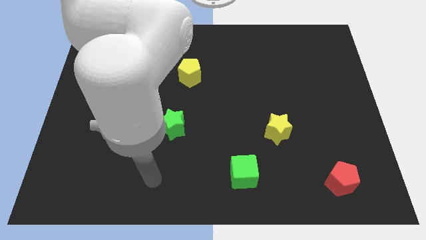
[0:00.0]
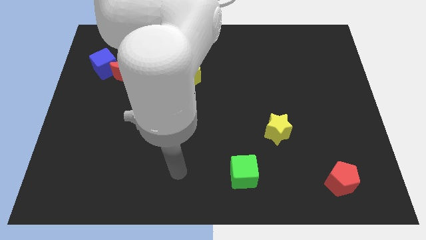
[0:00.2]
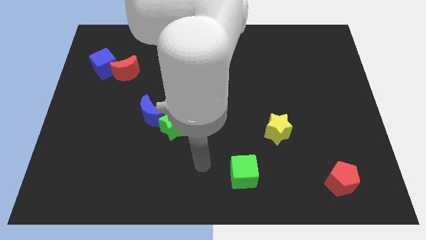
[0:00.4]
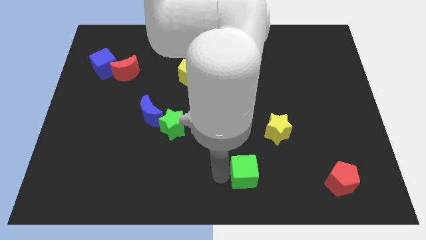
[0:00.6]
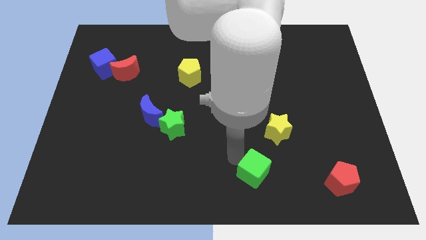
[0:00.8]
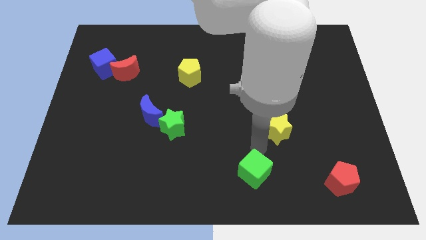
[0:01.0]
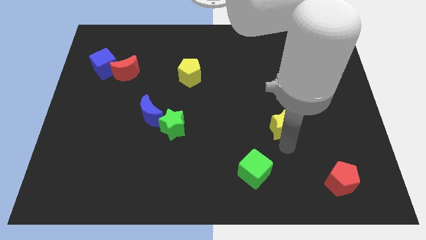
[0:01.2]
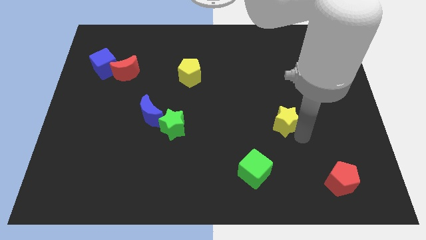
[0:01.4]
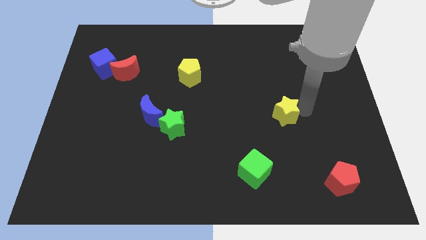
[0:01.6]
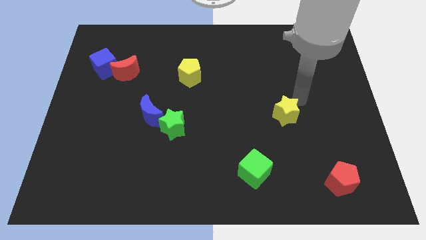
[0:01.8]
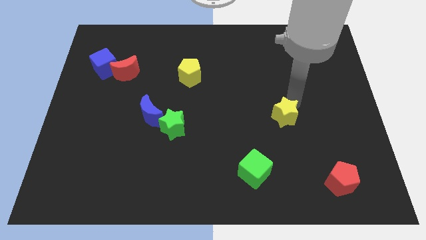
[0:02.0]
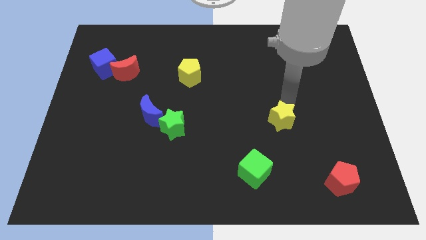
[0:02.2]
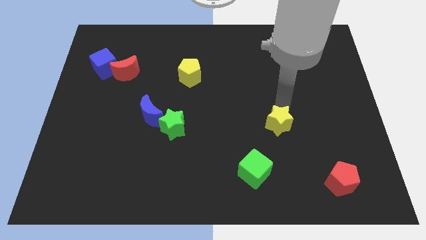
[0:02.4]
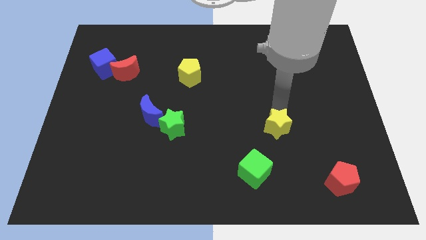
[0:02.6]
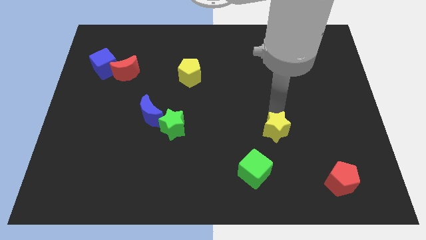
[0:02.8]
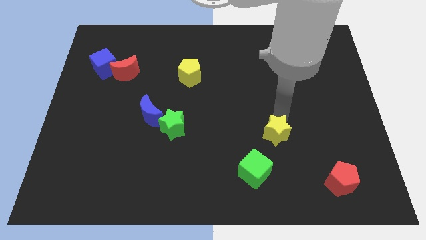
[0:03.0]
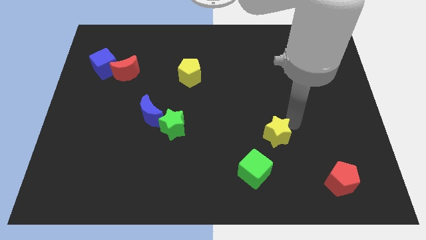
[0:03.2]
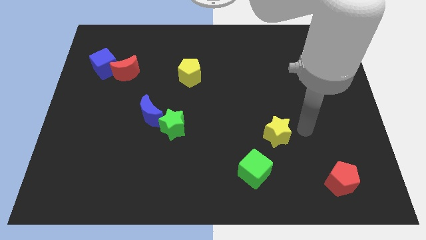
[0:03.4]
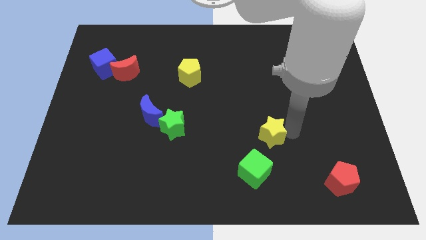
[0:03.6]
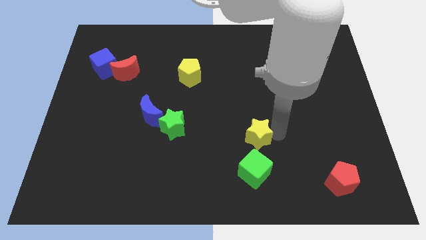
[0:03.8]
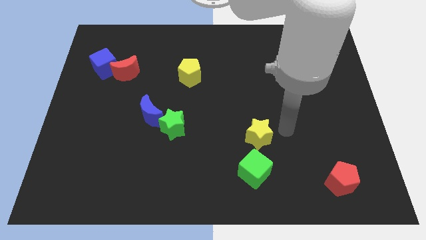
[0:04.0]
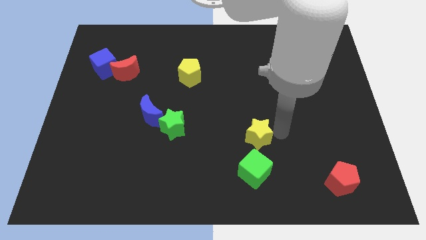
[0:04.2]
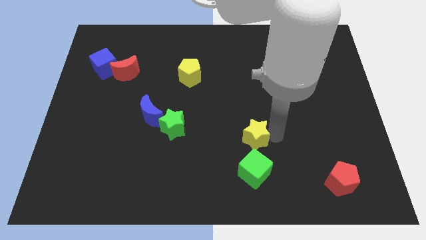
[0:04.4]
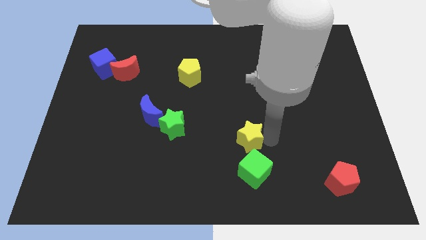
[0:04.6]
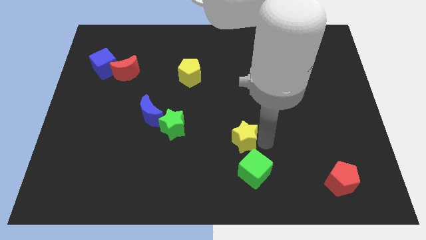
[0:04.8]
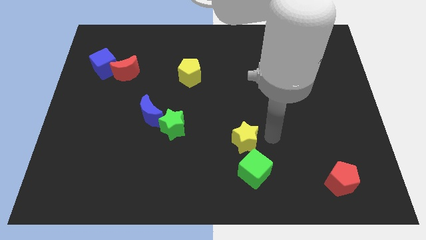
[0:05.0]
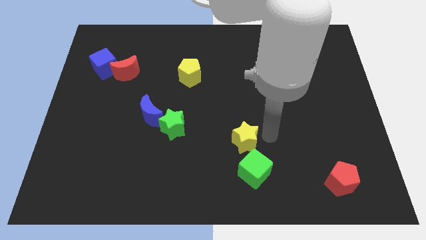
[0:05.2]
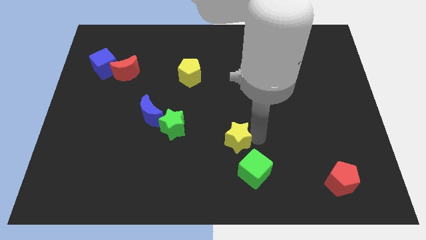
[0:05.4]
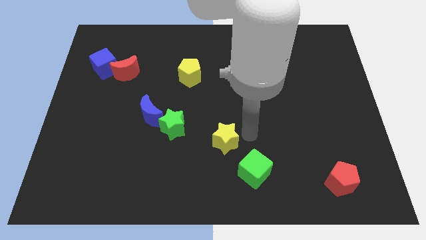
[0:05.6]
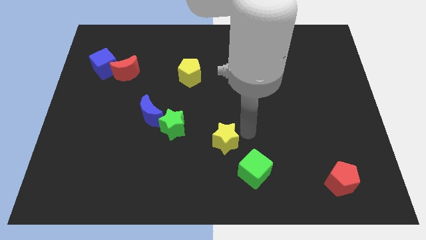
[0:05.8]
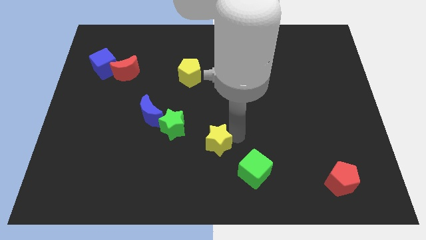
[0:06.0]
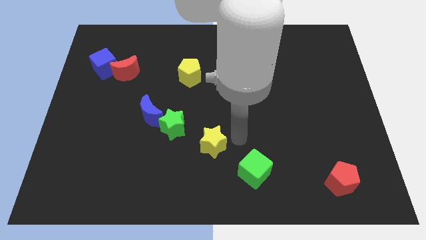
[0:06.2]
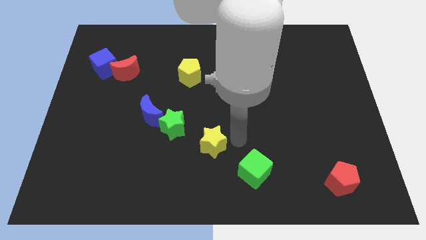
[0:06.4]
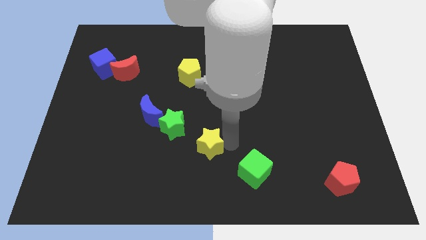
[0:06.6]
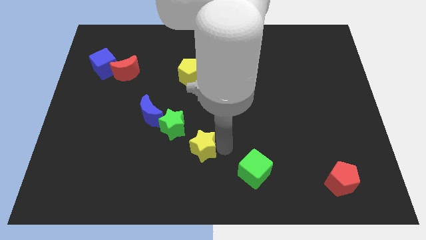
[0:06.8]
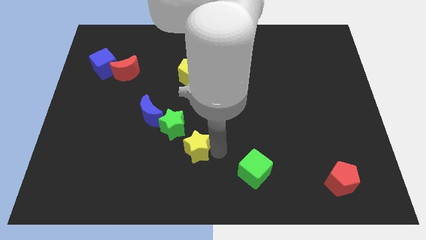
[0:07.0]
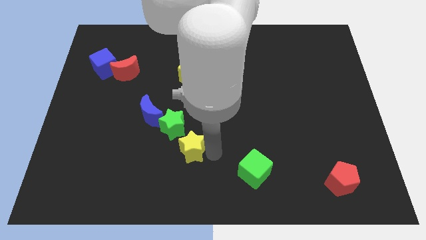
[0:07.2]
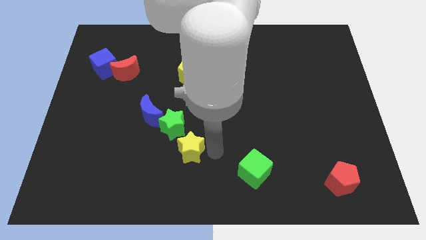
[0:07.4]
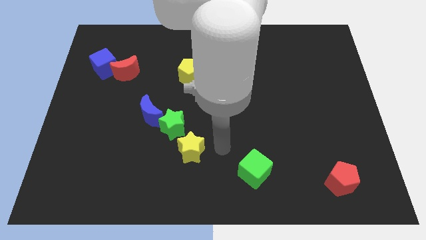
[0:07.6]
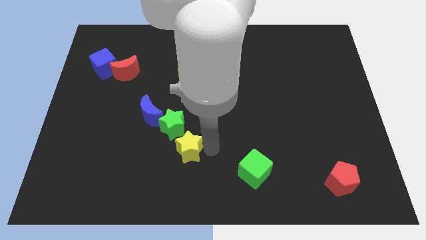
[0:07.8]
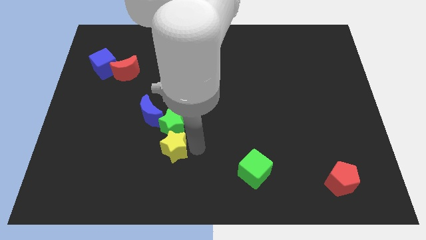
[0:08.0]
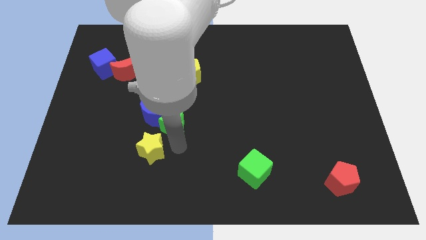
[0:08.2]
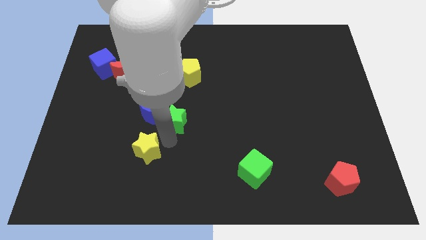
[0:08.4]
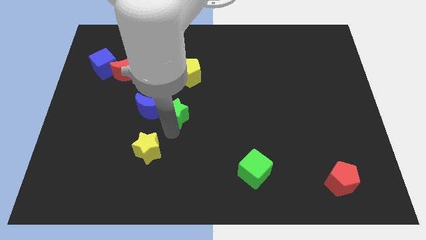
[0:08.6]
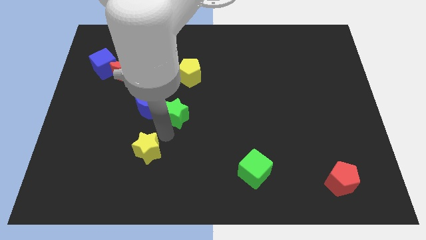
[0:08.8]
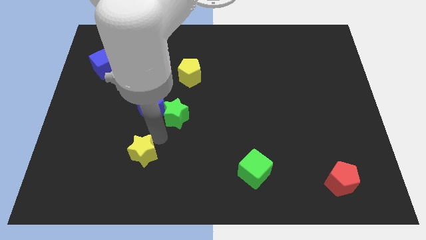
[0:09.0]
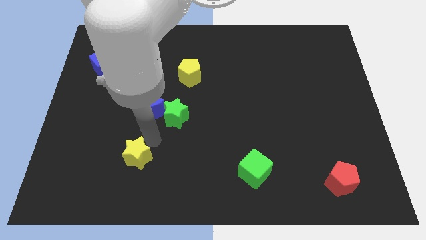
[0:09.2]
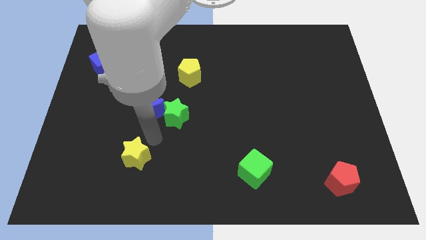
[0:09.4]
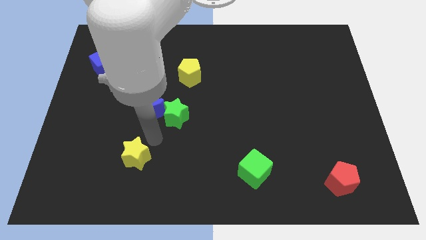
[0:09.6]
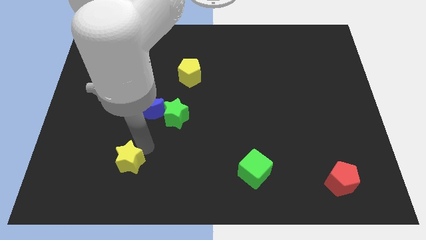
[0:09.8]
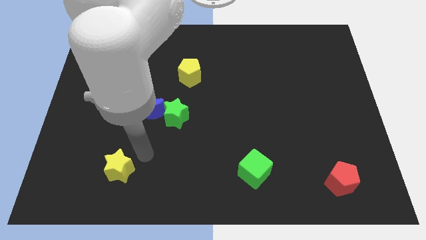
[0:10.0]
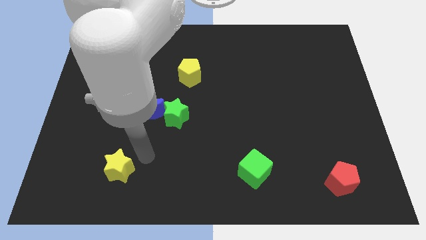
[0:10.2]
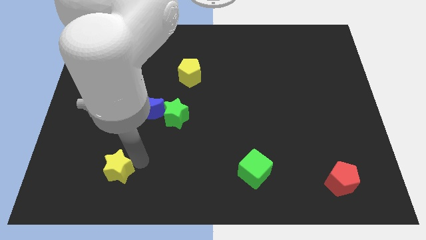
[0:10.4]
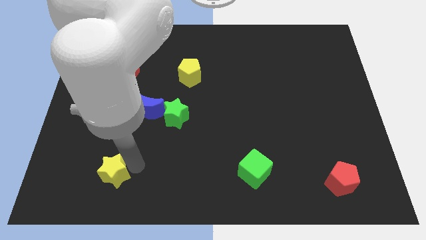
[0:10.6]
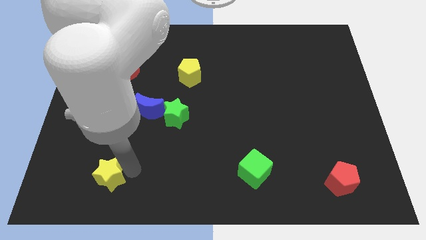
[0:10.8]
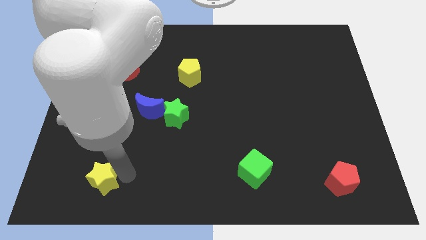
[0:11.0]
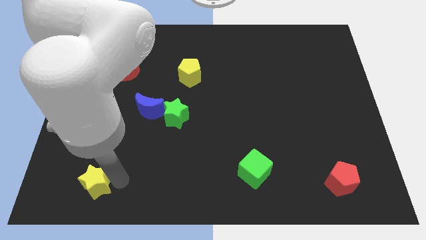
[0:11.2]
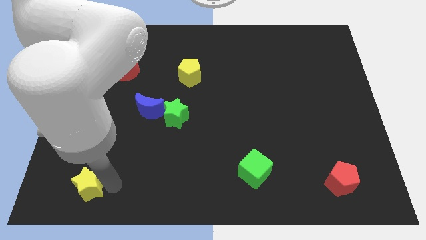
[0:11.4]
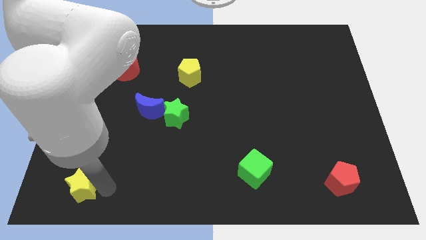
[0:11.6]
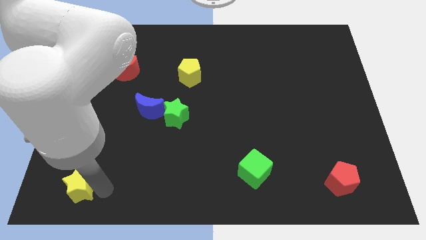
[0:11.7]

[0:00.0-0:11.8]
put the yellow star to the bottom left

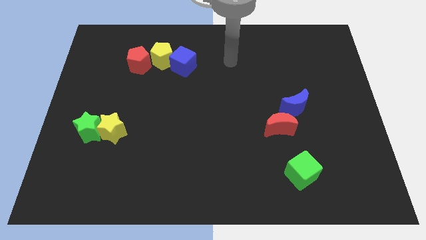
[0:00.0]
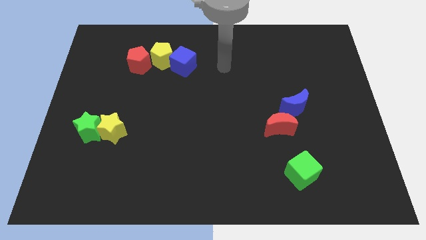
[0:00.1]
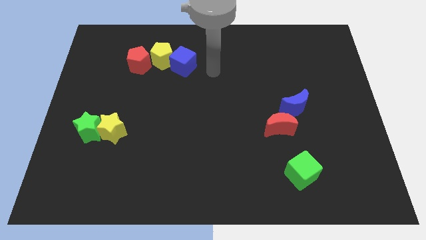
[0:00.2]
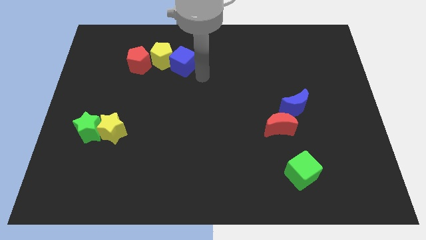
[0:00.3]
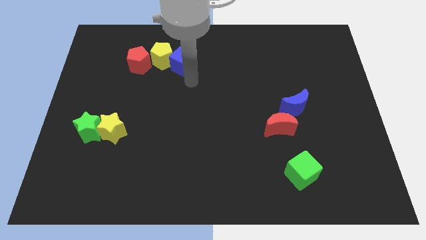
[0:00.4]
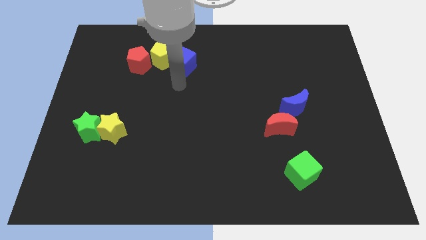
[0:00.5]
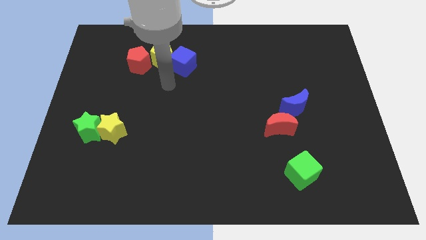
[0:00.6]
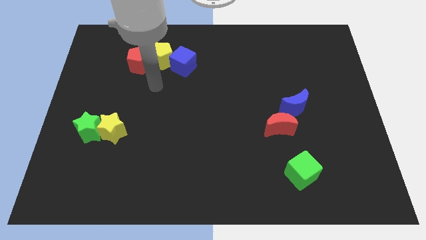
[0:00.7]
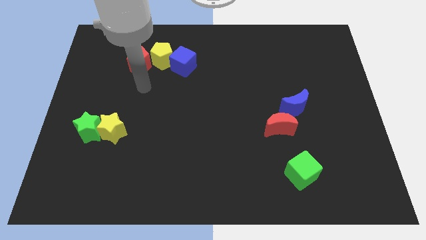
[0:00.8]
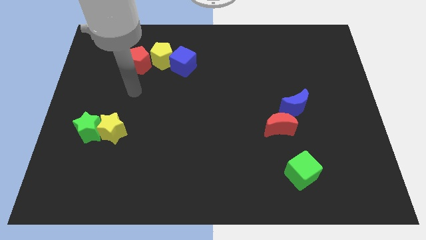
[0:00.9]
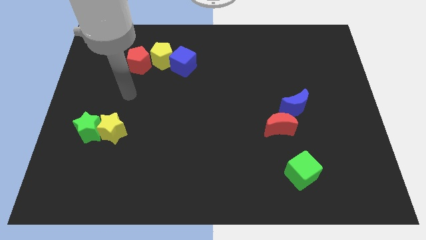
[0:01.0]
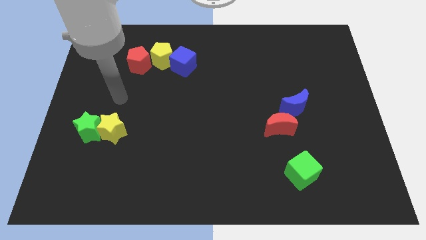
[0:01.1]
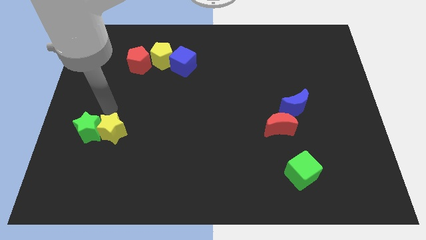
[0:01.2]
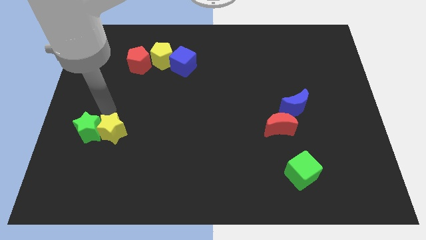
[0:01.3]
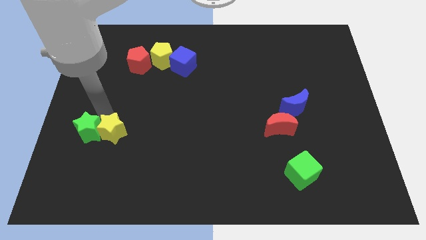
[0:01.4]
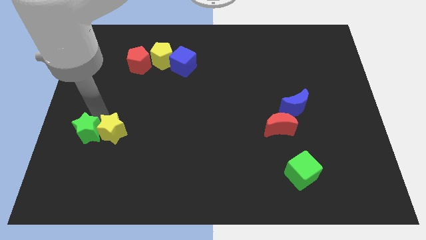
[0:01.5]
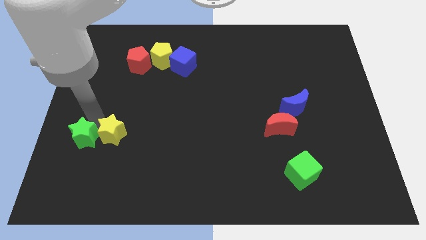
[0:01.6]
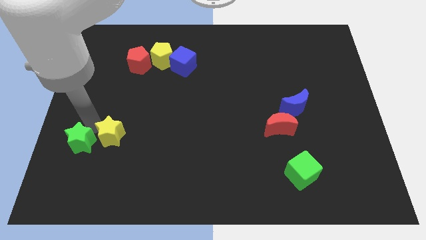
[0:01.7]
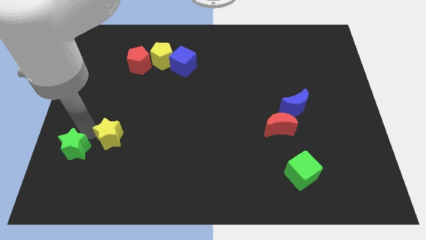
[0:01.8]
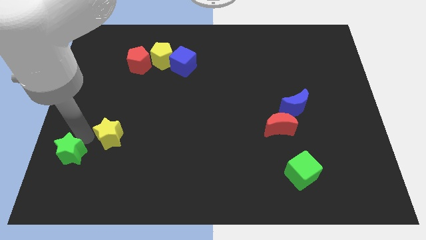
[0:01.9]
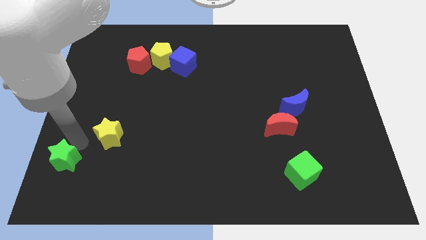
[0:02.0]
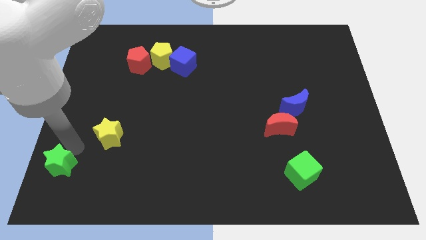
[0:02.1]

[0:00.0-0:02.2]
put the green star to the bottom left of the board
